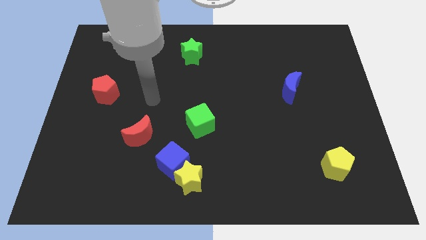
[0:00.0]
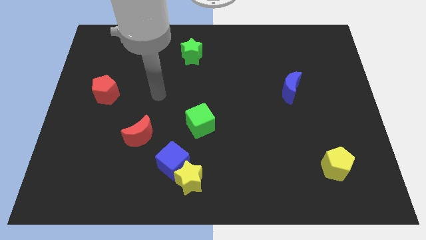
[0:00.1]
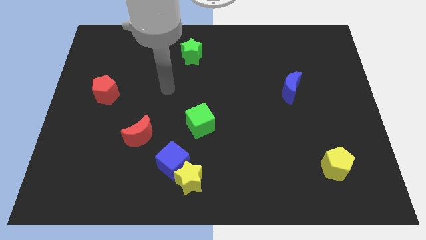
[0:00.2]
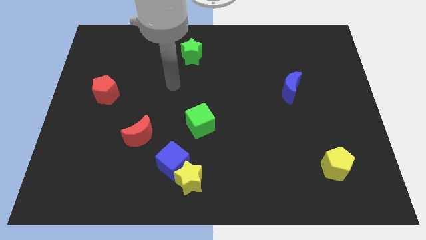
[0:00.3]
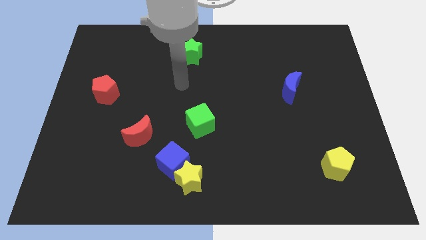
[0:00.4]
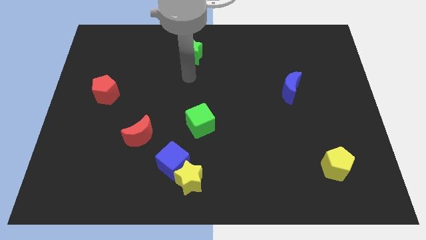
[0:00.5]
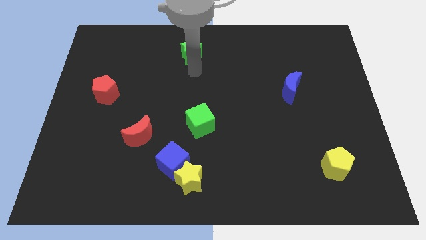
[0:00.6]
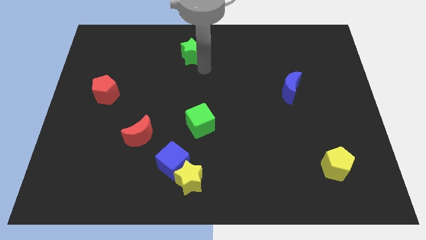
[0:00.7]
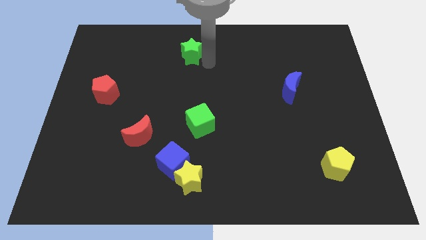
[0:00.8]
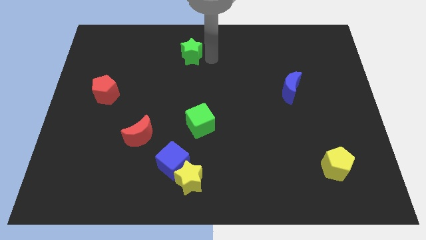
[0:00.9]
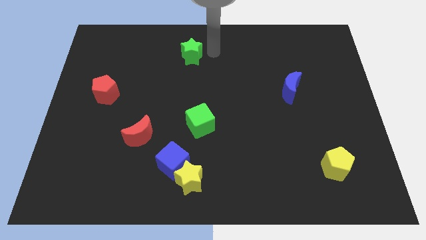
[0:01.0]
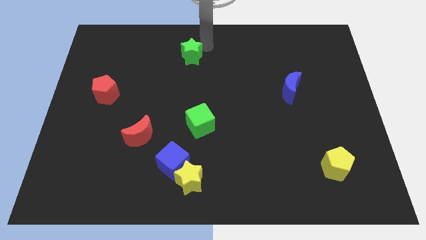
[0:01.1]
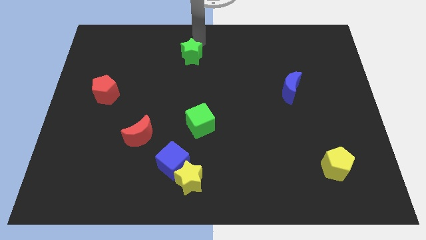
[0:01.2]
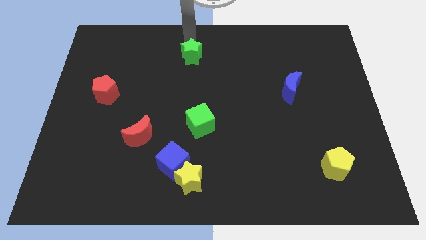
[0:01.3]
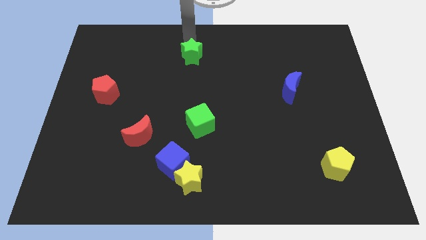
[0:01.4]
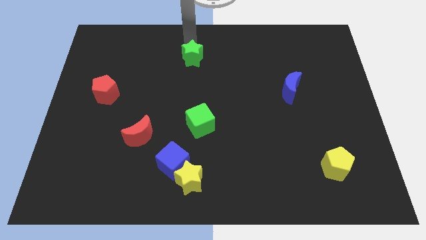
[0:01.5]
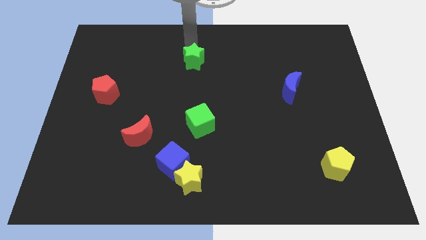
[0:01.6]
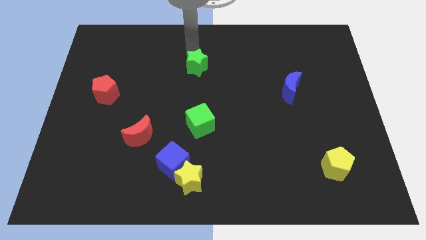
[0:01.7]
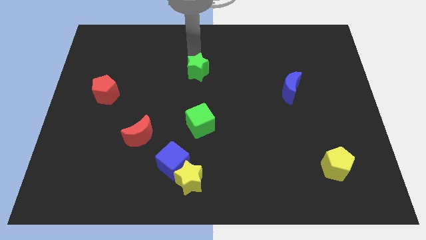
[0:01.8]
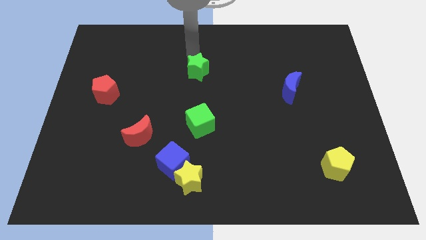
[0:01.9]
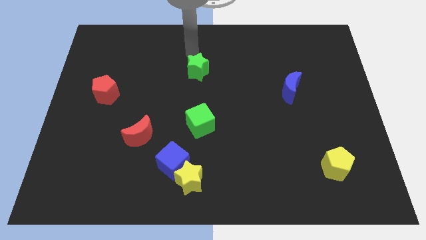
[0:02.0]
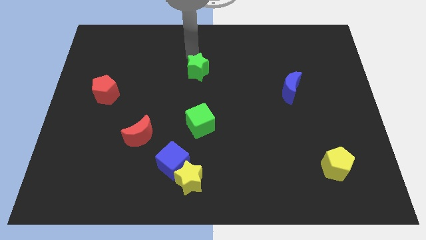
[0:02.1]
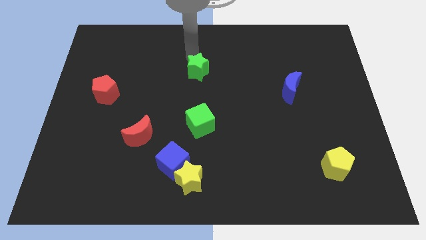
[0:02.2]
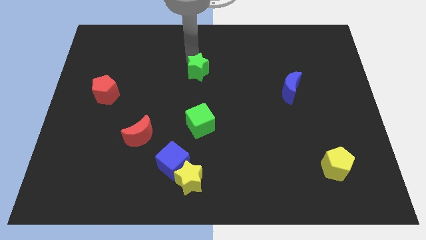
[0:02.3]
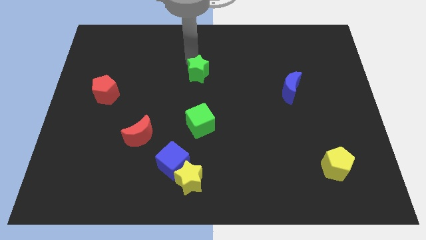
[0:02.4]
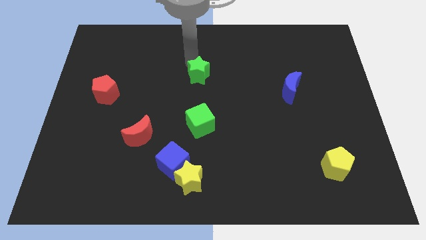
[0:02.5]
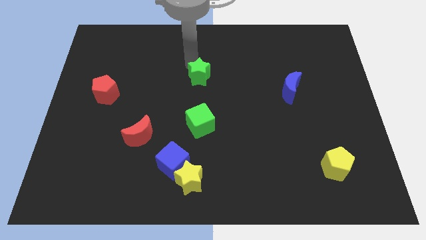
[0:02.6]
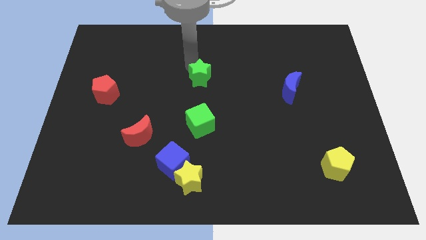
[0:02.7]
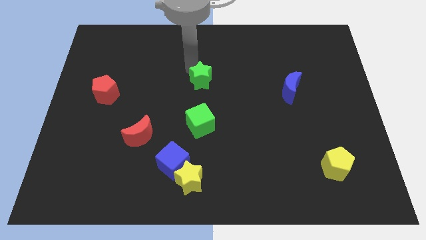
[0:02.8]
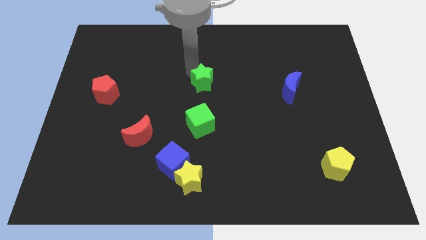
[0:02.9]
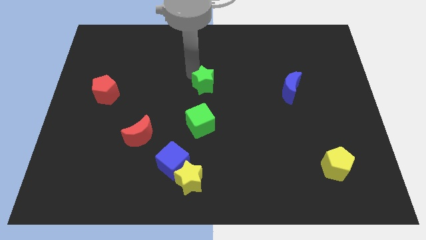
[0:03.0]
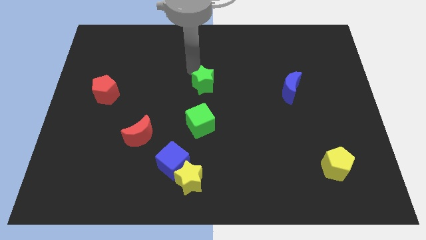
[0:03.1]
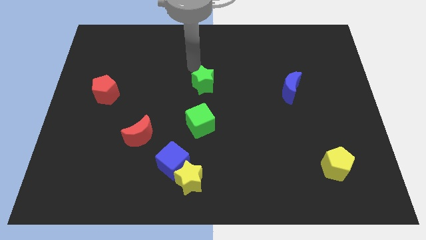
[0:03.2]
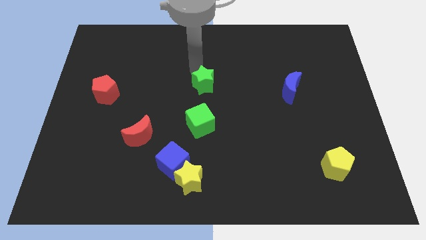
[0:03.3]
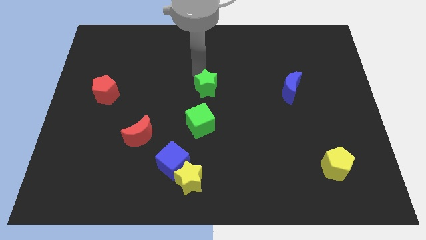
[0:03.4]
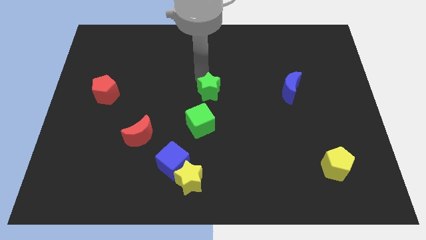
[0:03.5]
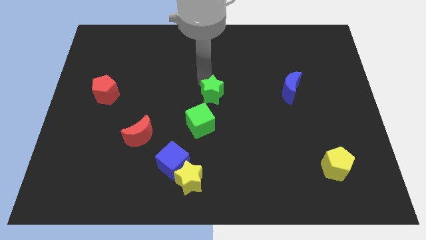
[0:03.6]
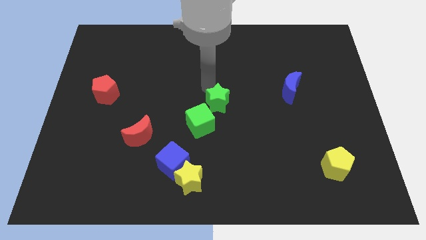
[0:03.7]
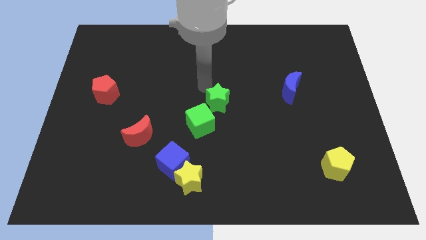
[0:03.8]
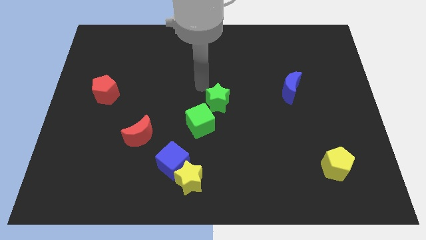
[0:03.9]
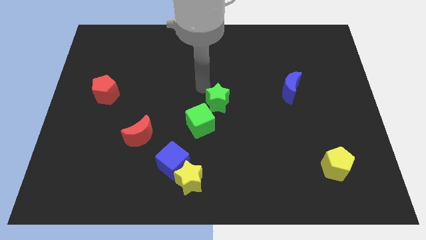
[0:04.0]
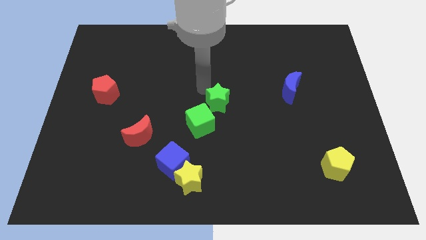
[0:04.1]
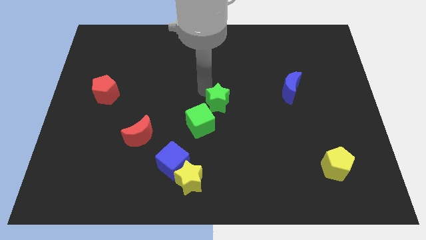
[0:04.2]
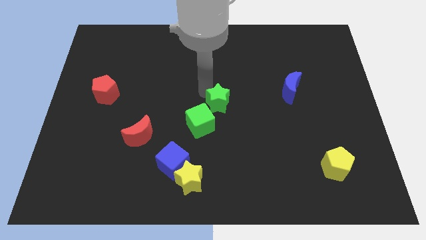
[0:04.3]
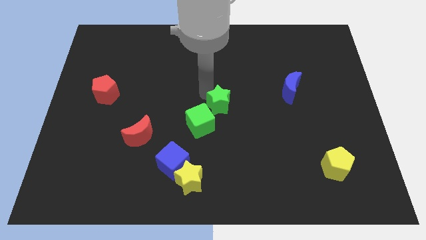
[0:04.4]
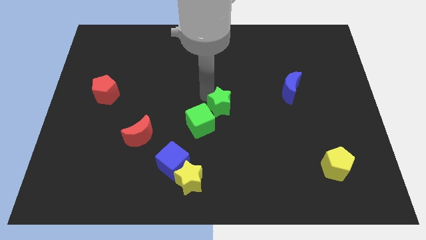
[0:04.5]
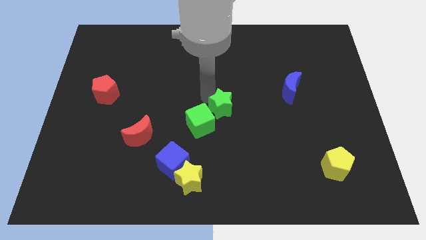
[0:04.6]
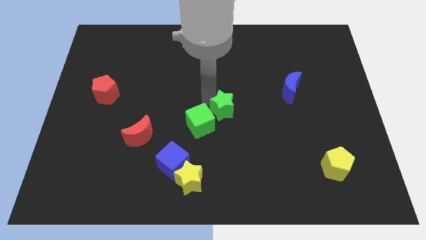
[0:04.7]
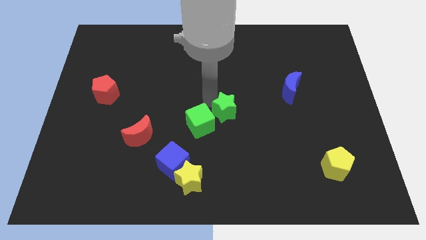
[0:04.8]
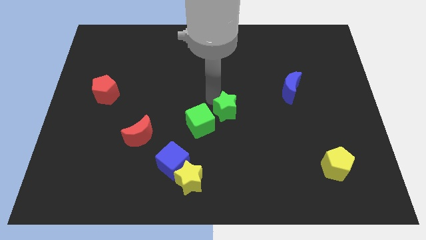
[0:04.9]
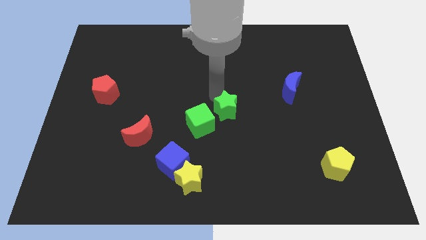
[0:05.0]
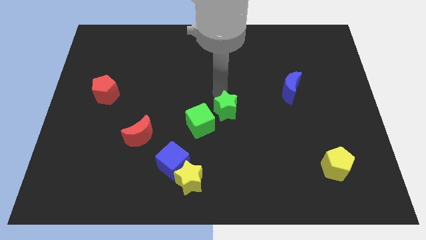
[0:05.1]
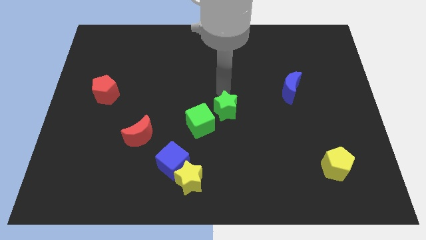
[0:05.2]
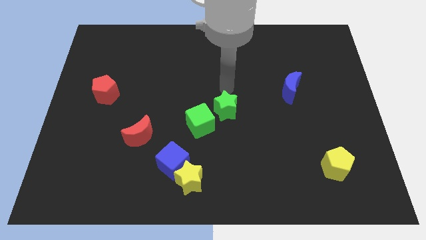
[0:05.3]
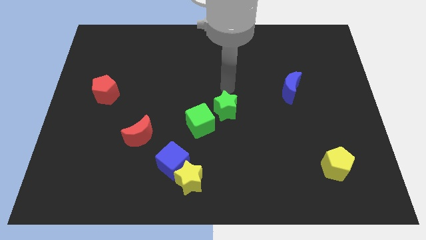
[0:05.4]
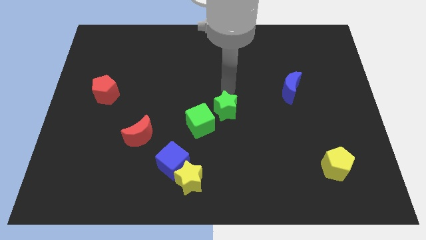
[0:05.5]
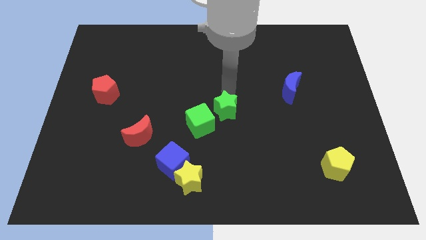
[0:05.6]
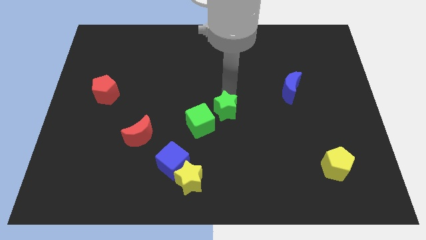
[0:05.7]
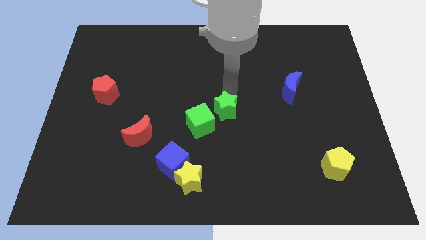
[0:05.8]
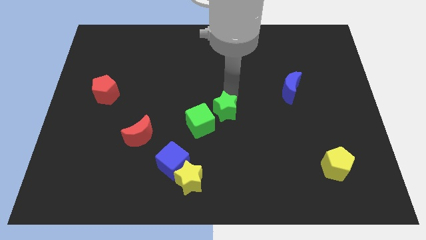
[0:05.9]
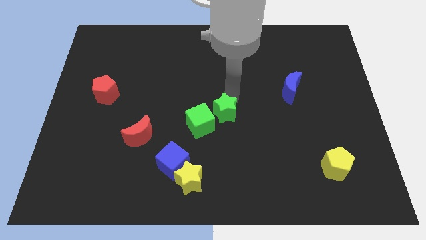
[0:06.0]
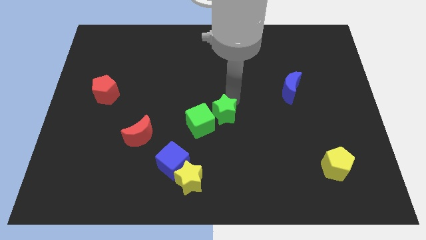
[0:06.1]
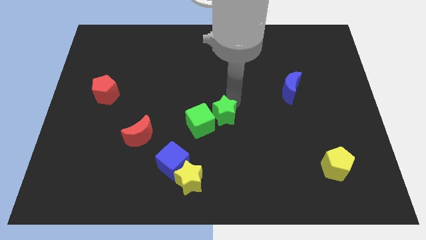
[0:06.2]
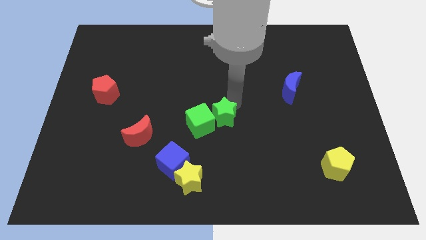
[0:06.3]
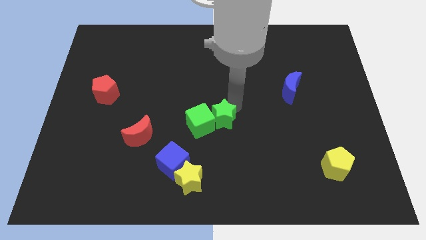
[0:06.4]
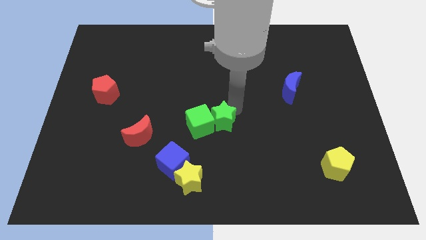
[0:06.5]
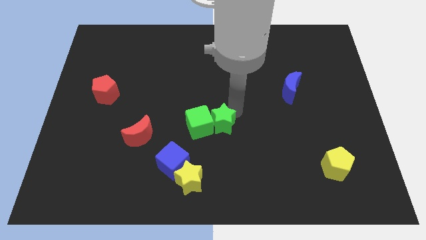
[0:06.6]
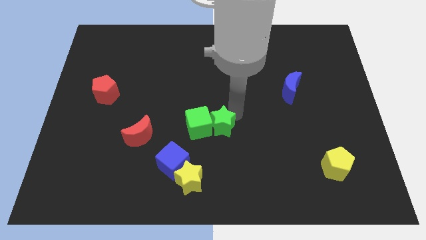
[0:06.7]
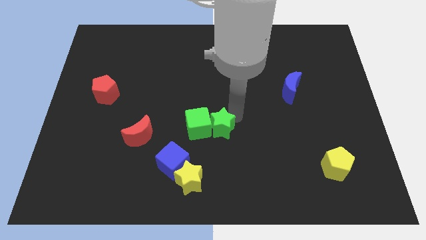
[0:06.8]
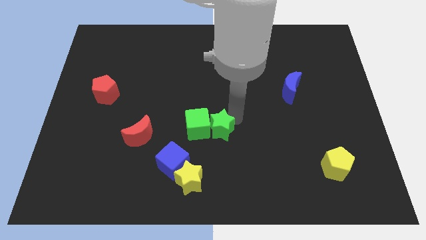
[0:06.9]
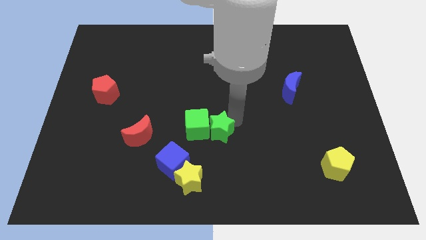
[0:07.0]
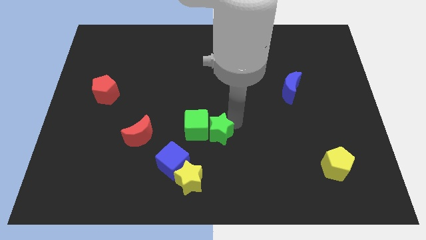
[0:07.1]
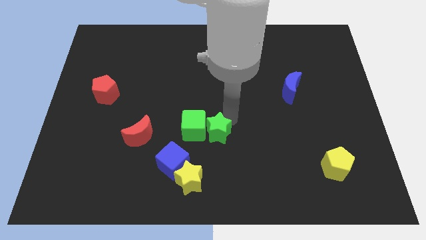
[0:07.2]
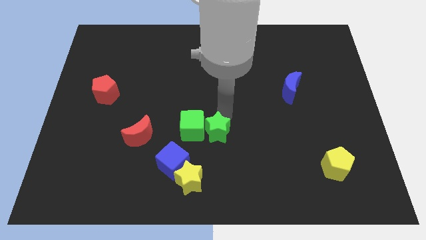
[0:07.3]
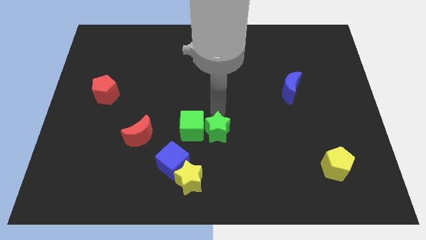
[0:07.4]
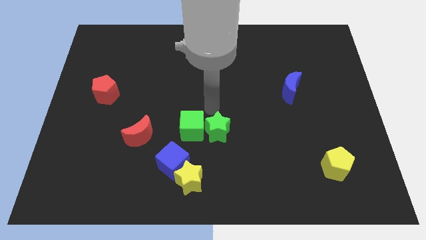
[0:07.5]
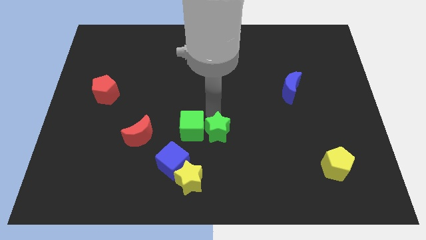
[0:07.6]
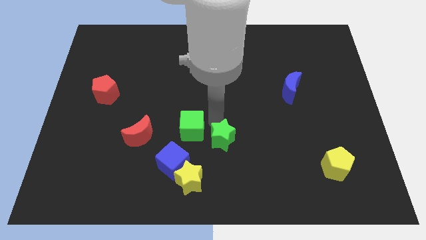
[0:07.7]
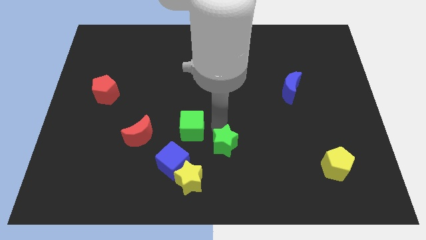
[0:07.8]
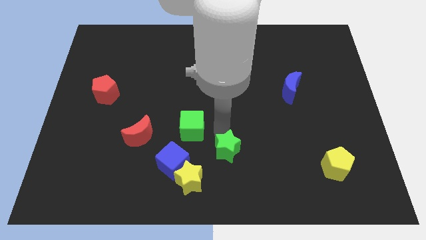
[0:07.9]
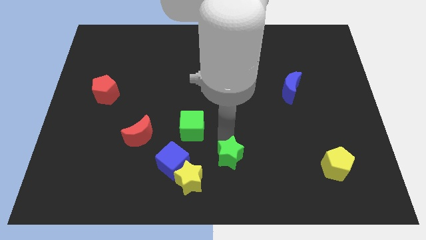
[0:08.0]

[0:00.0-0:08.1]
move the green star to the bottom
